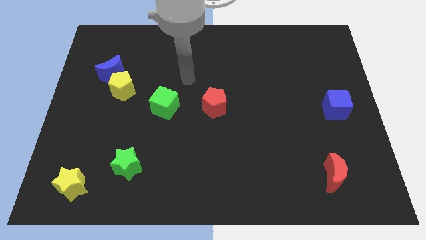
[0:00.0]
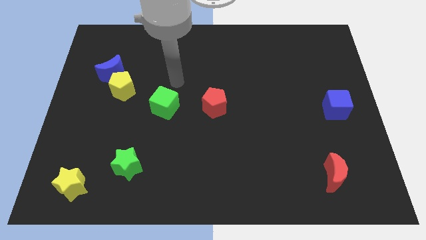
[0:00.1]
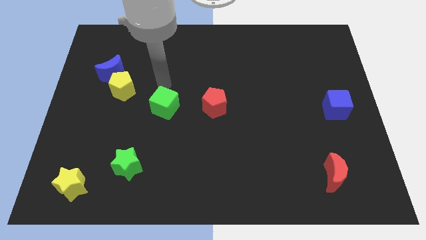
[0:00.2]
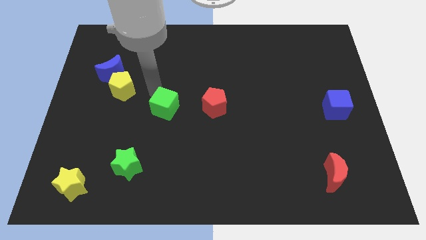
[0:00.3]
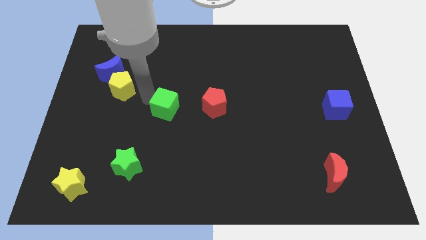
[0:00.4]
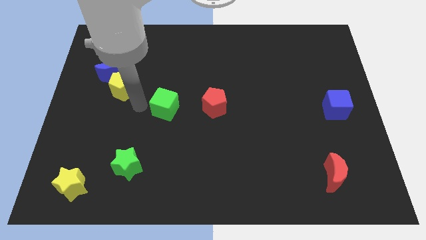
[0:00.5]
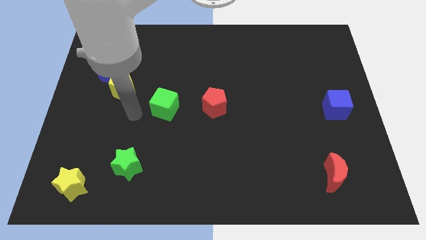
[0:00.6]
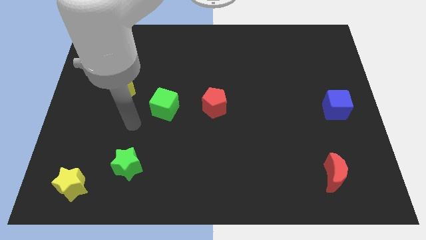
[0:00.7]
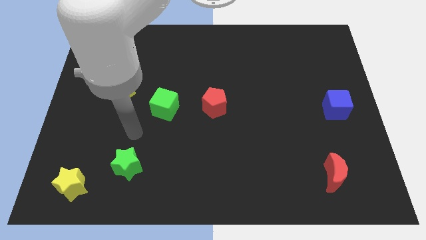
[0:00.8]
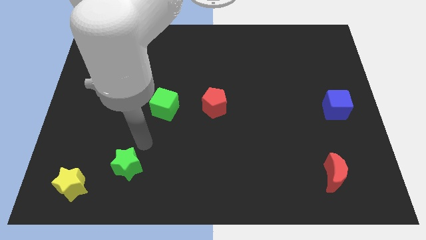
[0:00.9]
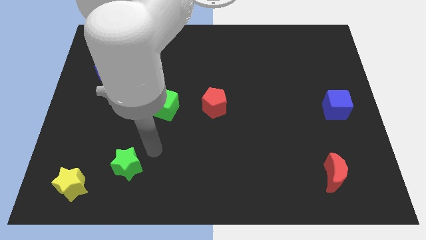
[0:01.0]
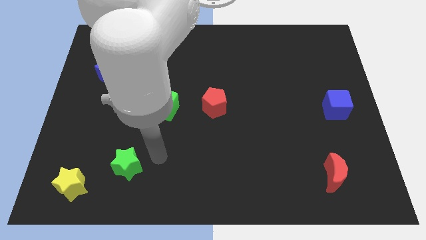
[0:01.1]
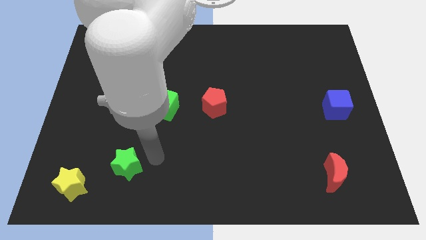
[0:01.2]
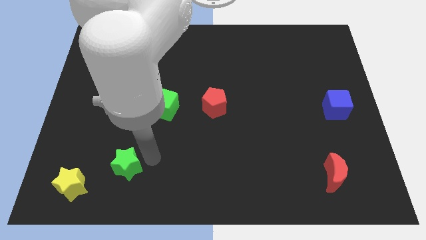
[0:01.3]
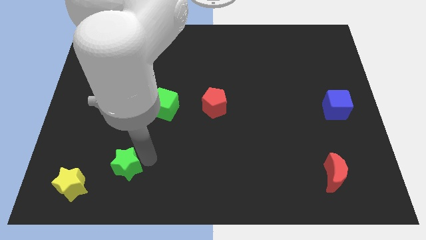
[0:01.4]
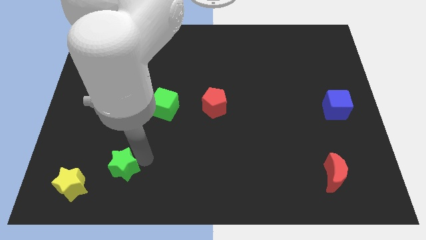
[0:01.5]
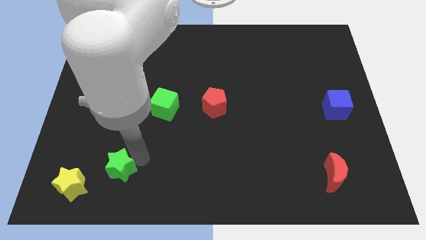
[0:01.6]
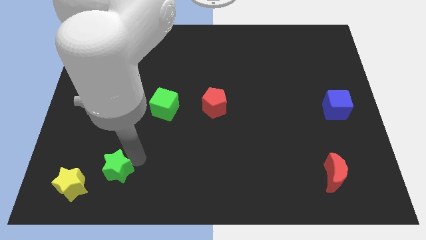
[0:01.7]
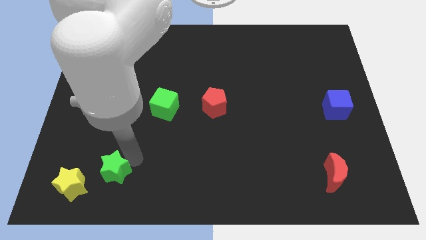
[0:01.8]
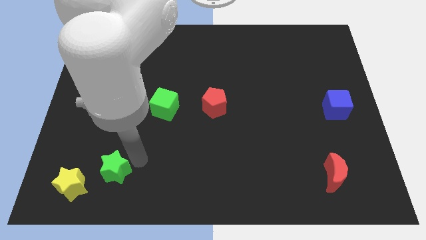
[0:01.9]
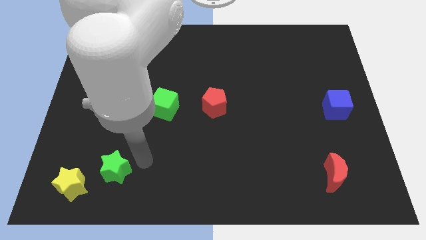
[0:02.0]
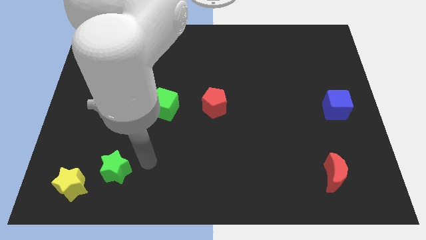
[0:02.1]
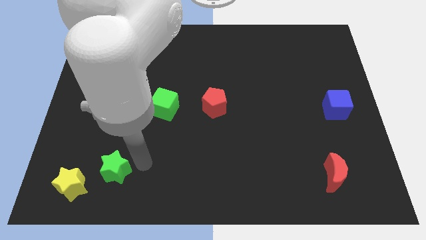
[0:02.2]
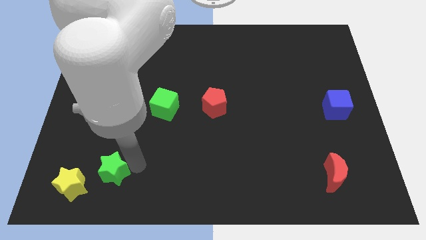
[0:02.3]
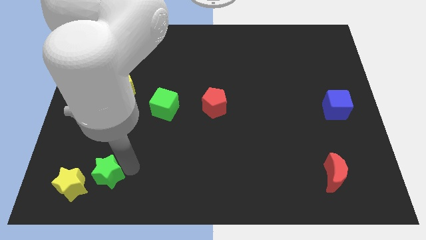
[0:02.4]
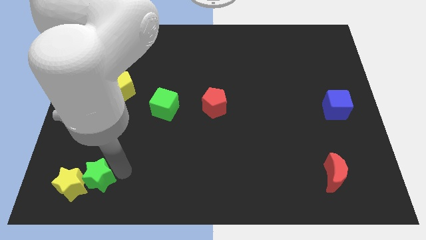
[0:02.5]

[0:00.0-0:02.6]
push the green star close to the yellow star

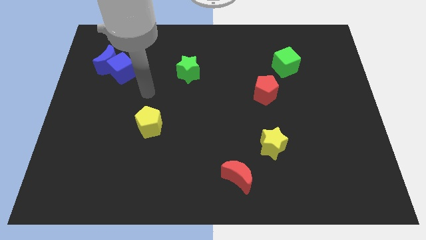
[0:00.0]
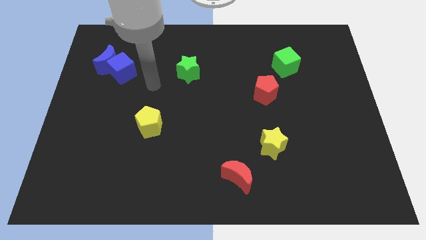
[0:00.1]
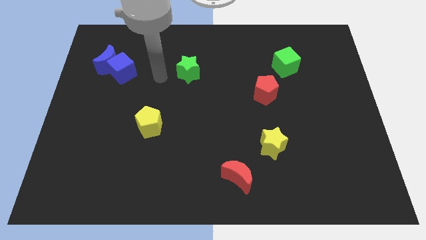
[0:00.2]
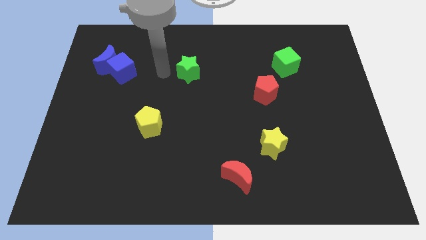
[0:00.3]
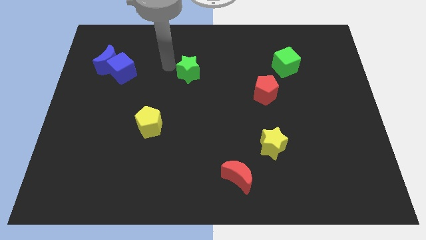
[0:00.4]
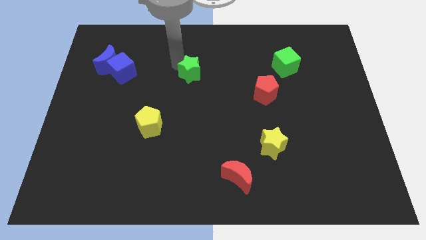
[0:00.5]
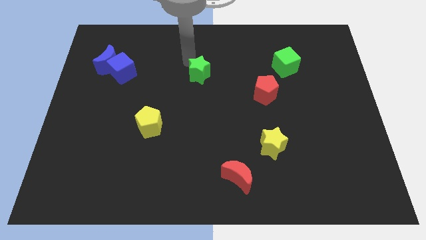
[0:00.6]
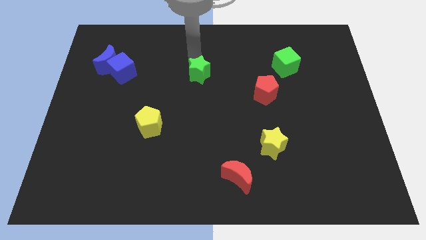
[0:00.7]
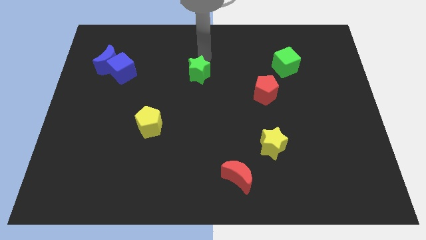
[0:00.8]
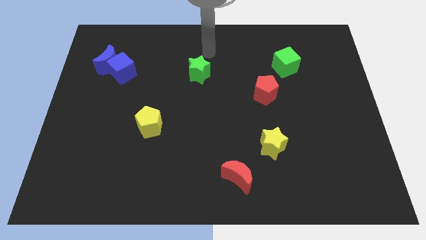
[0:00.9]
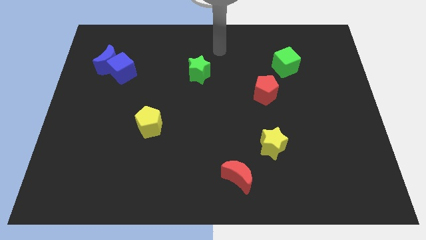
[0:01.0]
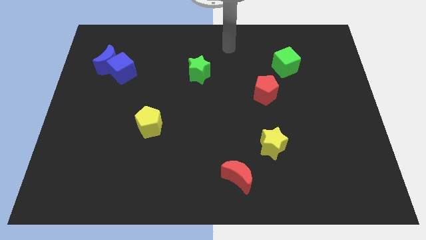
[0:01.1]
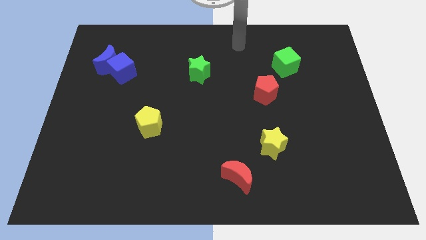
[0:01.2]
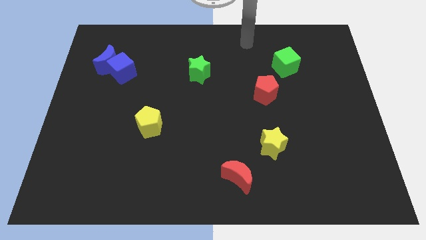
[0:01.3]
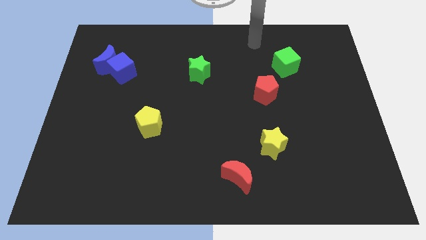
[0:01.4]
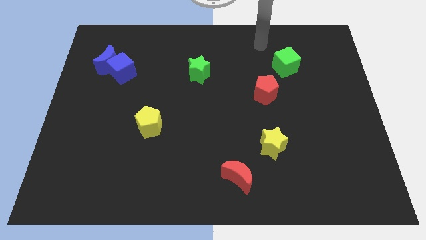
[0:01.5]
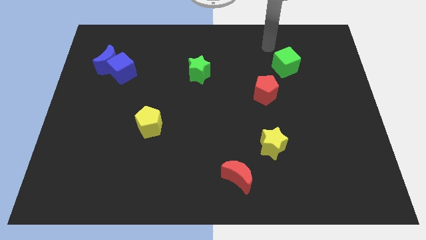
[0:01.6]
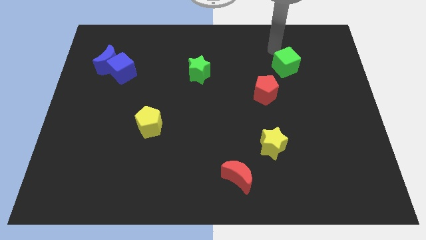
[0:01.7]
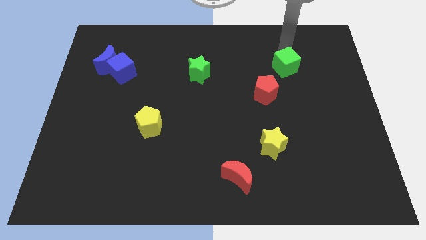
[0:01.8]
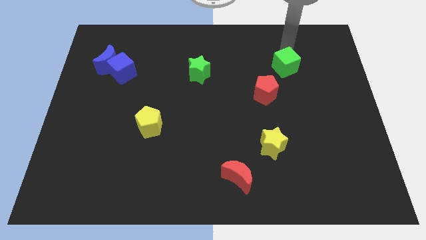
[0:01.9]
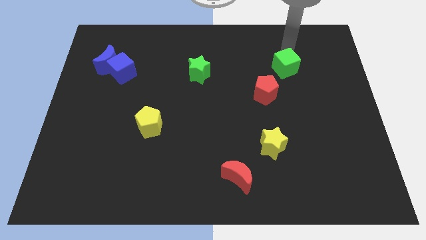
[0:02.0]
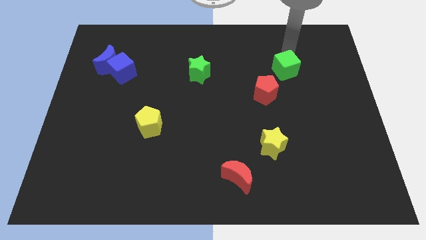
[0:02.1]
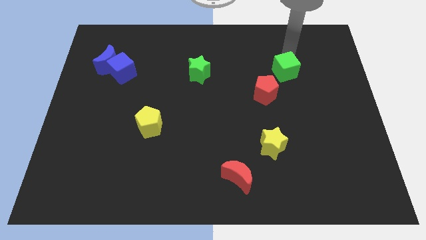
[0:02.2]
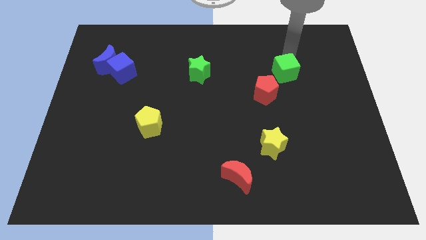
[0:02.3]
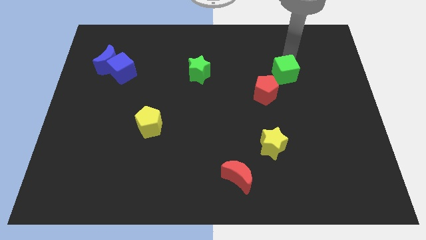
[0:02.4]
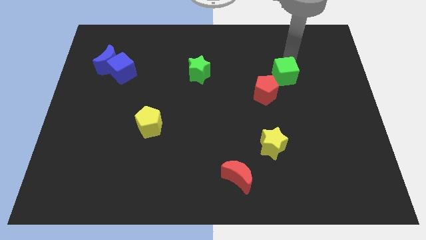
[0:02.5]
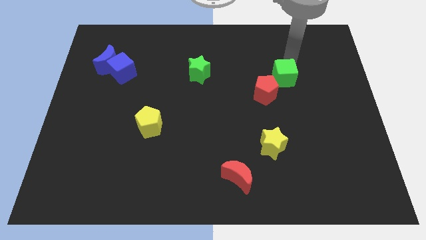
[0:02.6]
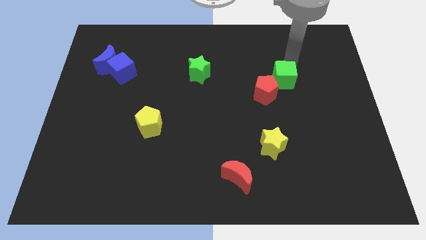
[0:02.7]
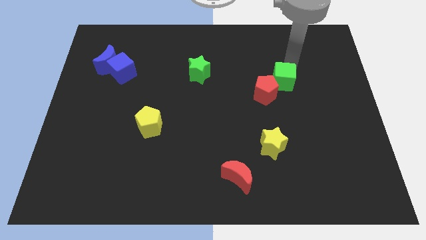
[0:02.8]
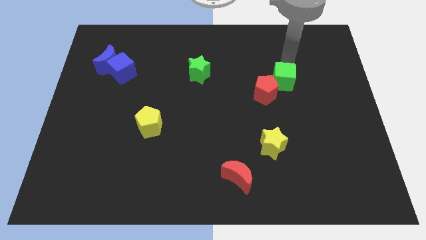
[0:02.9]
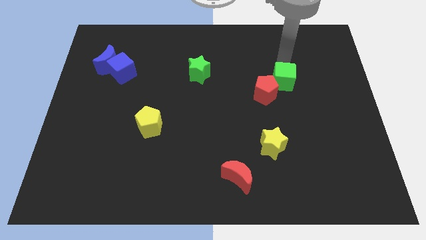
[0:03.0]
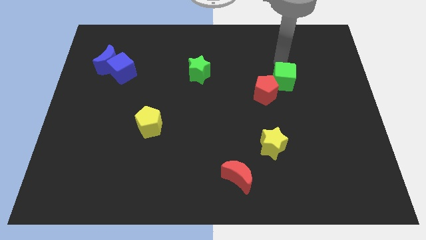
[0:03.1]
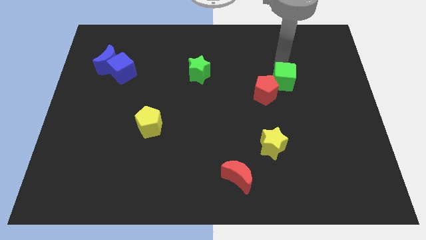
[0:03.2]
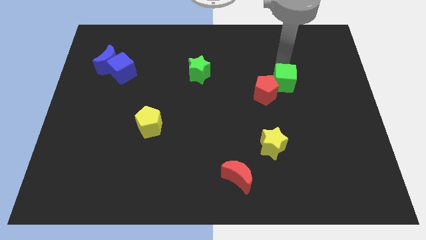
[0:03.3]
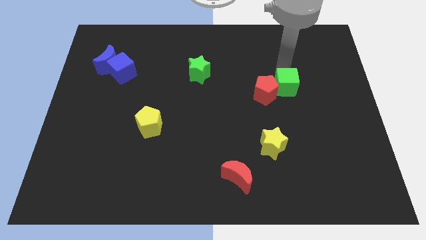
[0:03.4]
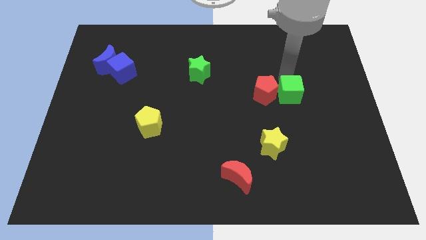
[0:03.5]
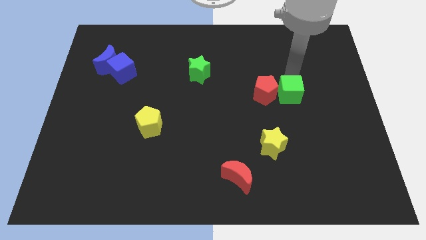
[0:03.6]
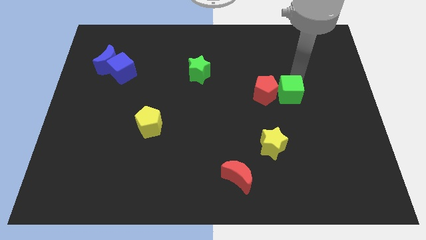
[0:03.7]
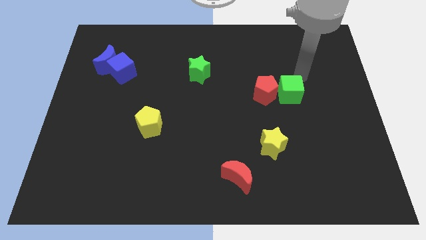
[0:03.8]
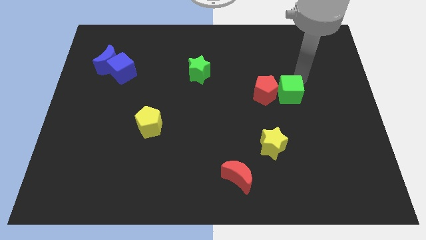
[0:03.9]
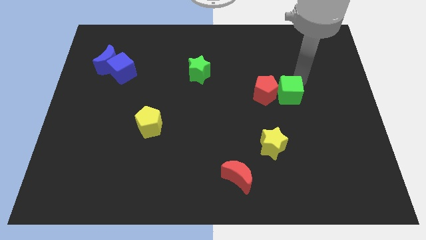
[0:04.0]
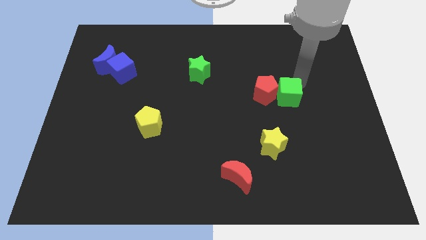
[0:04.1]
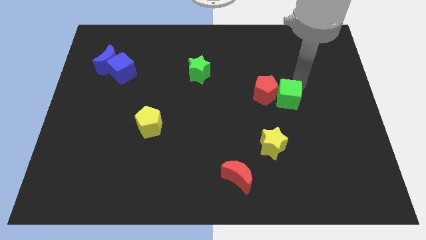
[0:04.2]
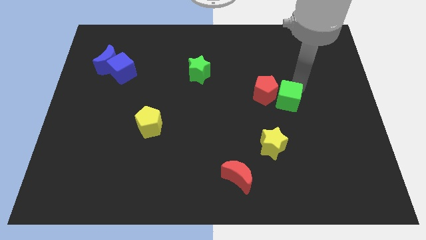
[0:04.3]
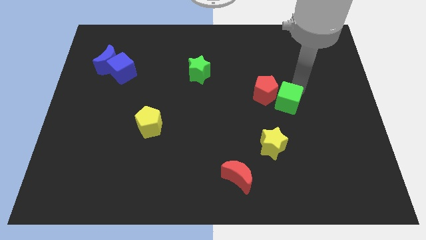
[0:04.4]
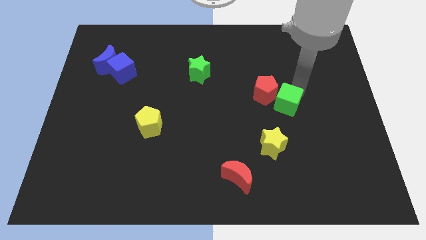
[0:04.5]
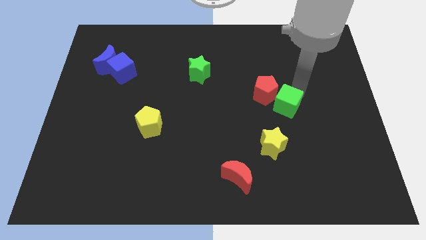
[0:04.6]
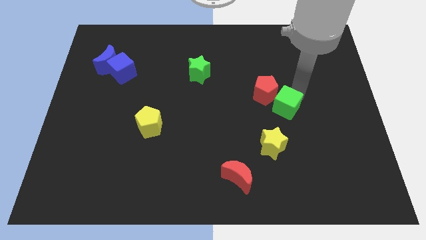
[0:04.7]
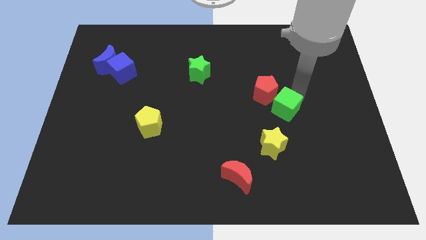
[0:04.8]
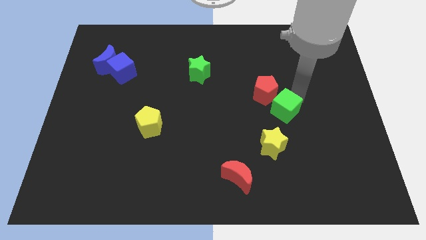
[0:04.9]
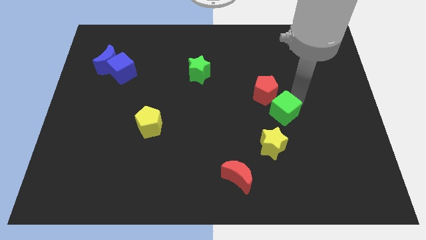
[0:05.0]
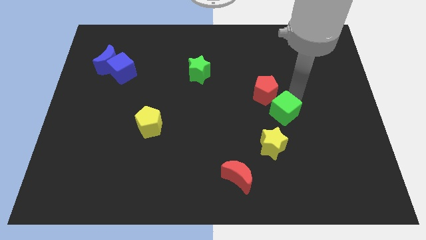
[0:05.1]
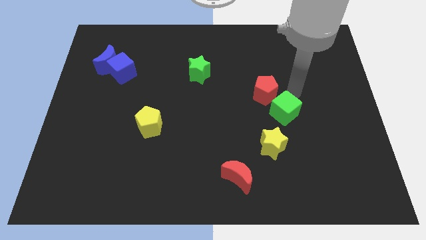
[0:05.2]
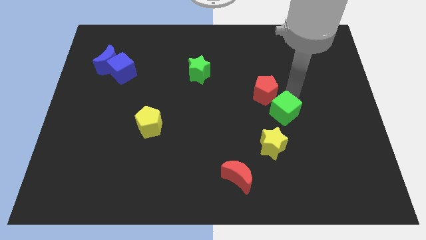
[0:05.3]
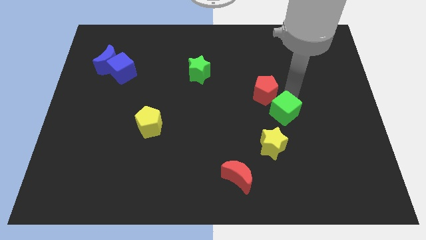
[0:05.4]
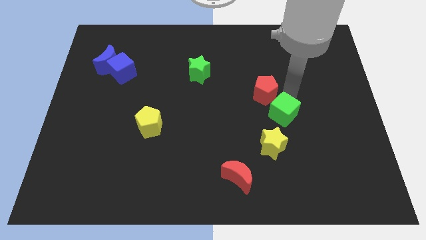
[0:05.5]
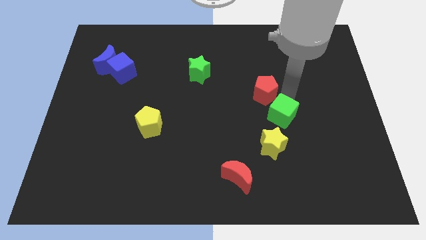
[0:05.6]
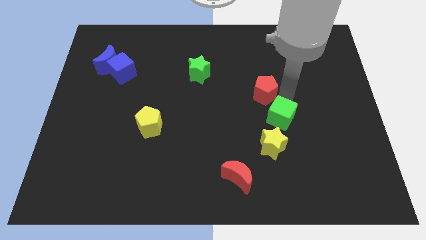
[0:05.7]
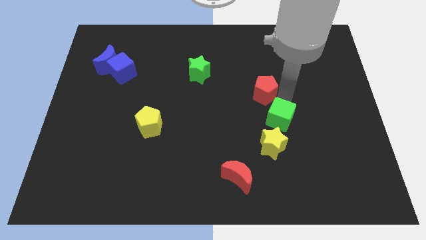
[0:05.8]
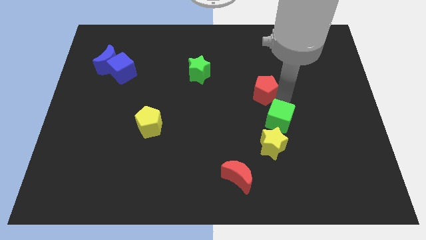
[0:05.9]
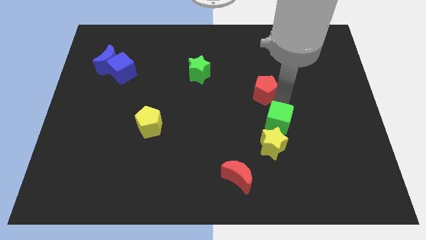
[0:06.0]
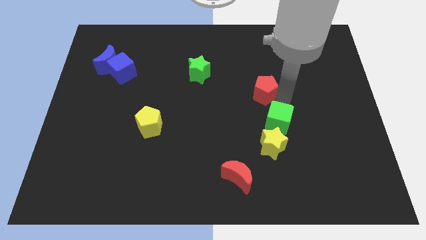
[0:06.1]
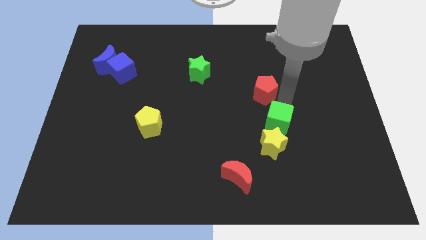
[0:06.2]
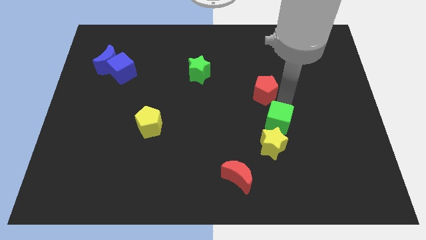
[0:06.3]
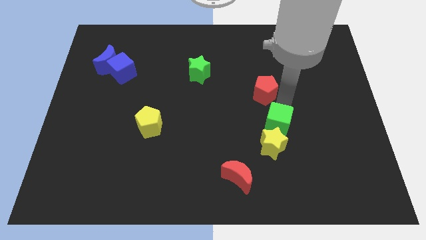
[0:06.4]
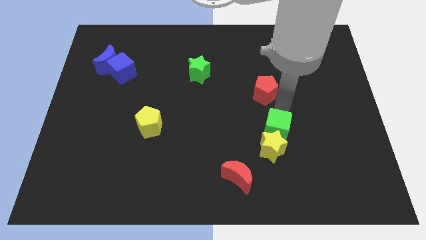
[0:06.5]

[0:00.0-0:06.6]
put the green cube next to the yellow star
